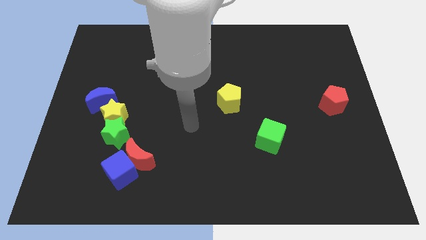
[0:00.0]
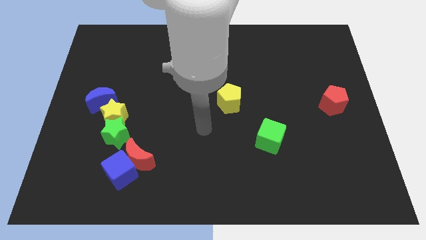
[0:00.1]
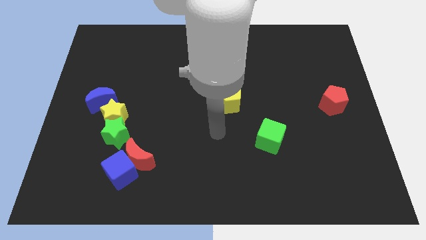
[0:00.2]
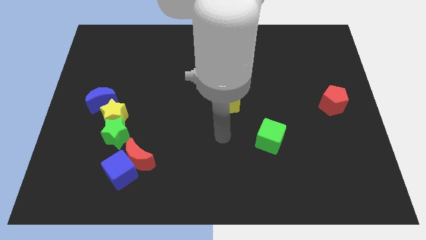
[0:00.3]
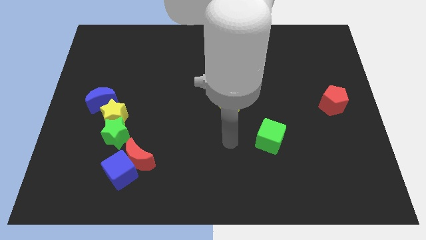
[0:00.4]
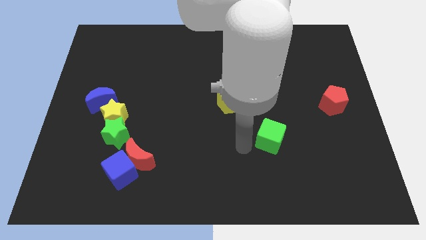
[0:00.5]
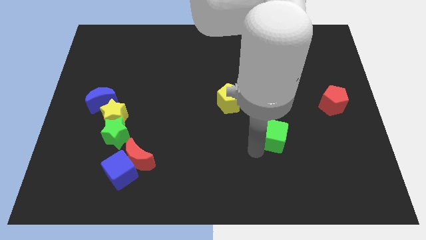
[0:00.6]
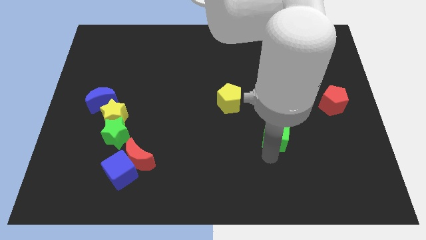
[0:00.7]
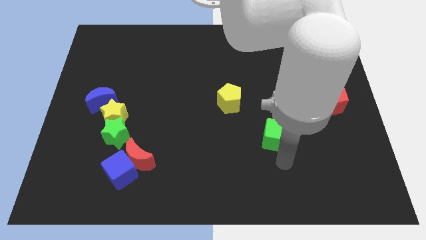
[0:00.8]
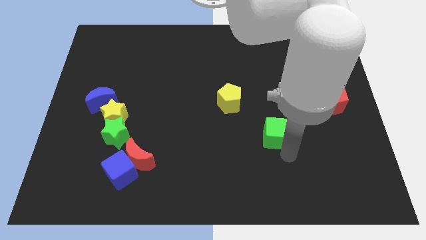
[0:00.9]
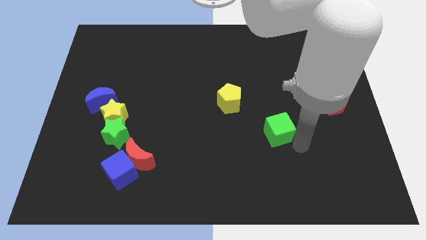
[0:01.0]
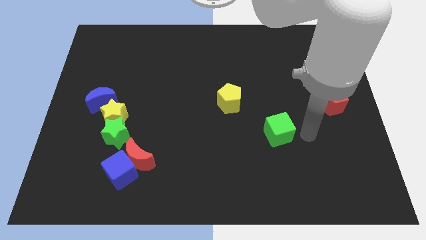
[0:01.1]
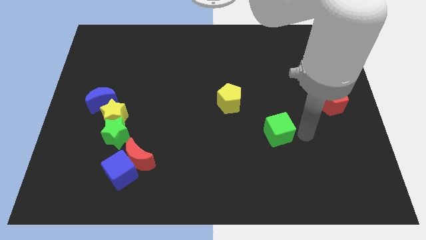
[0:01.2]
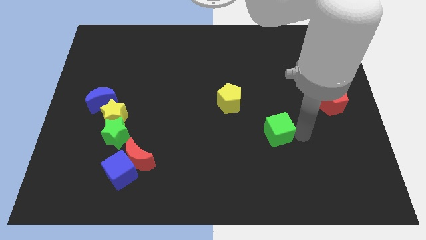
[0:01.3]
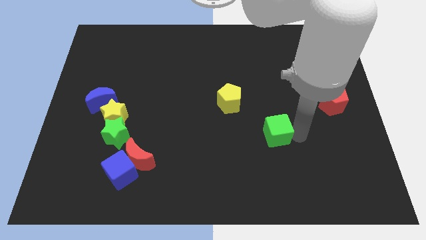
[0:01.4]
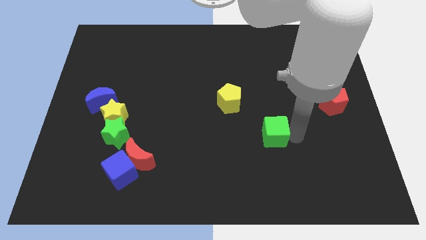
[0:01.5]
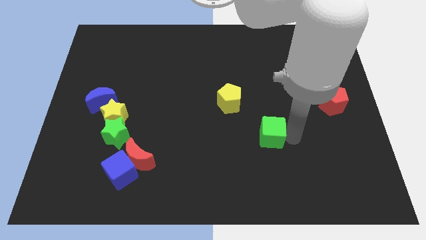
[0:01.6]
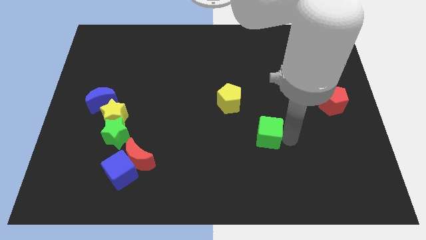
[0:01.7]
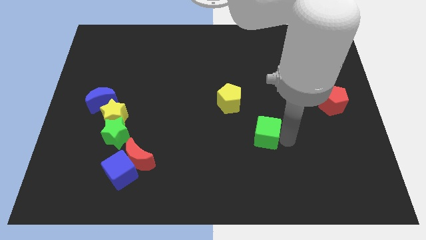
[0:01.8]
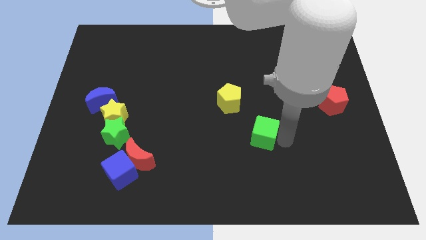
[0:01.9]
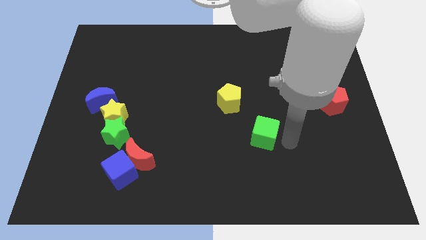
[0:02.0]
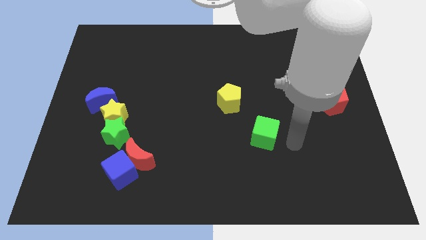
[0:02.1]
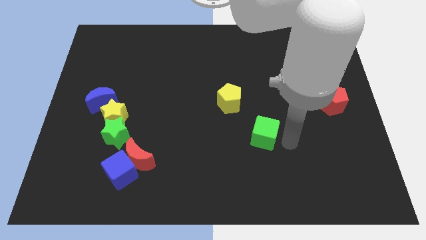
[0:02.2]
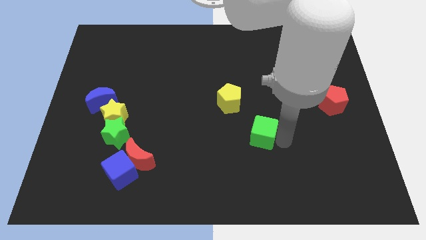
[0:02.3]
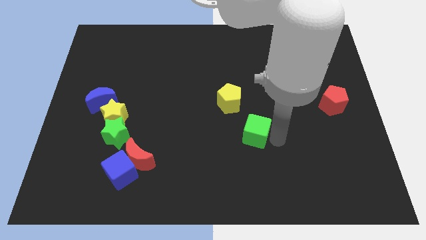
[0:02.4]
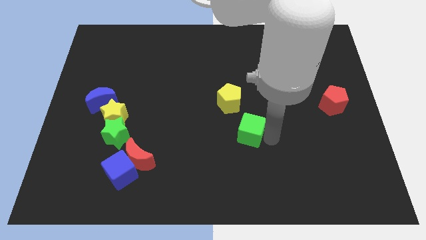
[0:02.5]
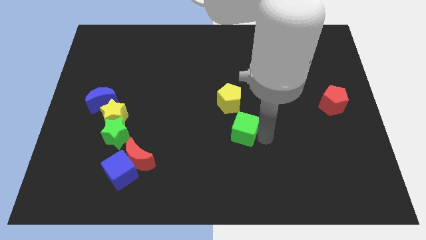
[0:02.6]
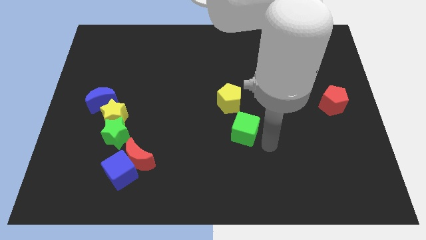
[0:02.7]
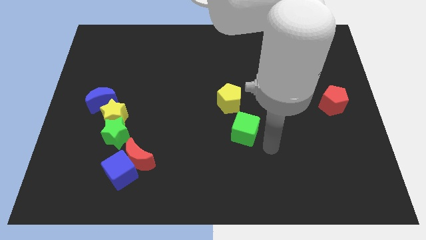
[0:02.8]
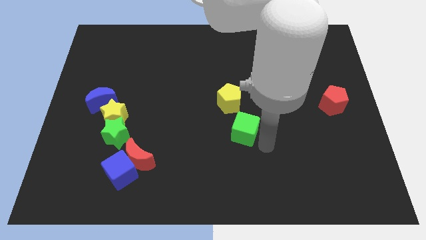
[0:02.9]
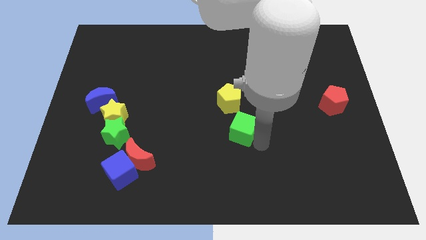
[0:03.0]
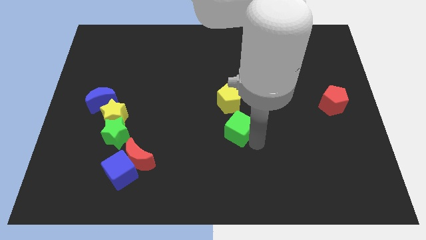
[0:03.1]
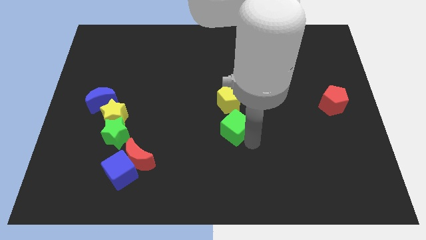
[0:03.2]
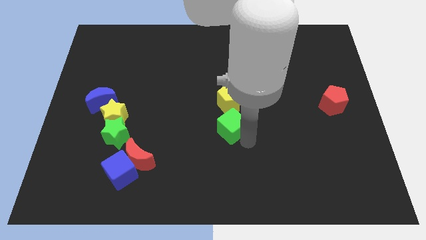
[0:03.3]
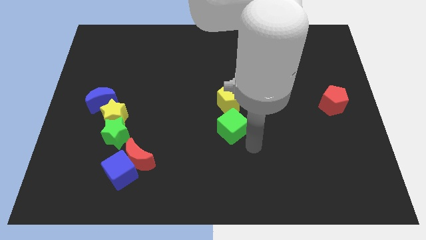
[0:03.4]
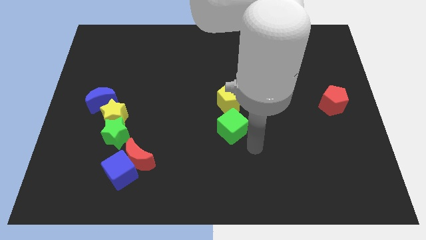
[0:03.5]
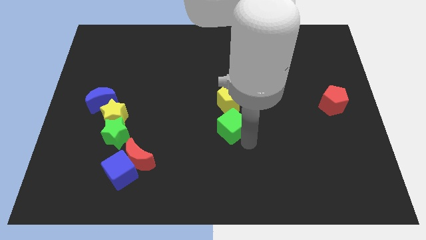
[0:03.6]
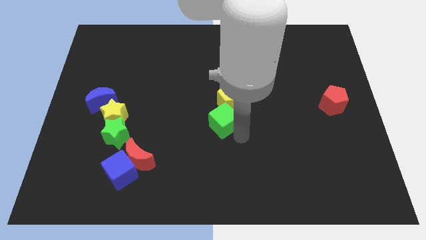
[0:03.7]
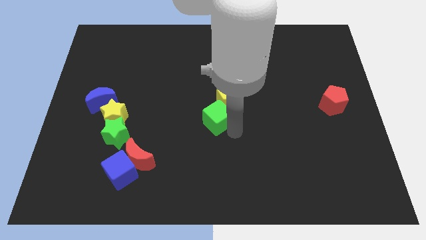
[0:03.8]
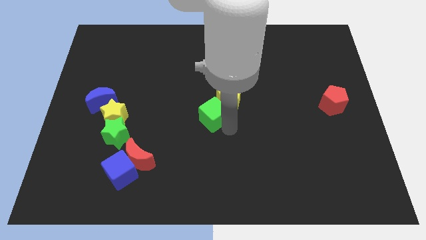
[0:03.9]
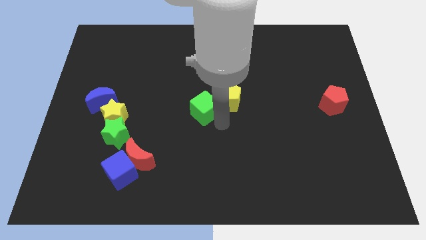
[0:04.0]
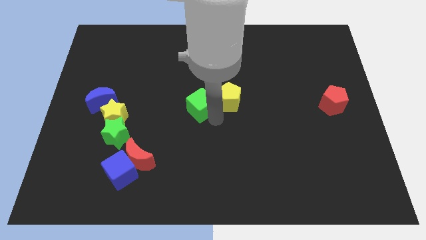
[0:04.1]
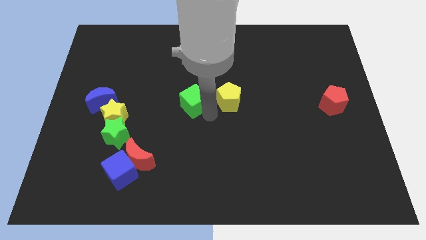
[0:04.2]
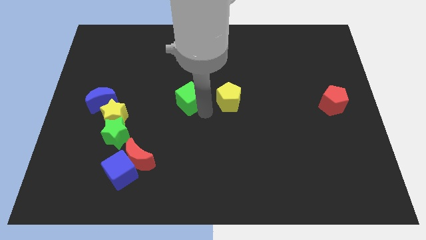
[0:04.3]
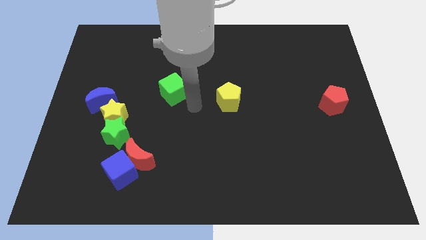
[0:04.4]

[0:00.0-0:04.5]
slide the green cube up and then to the left

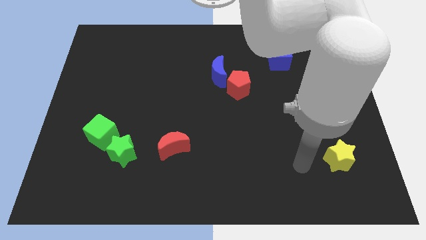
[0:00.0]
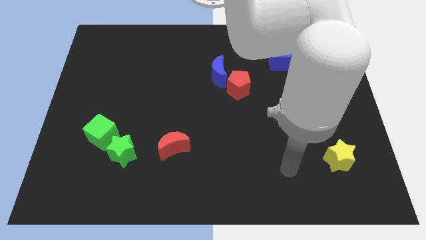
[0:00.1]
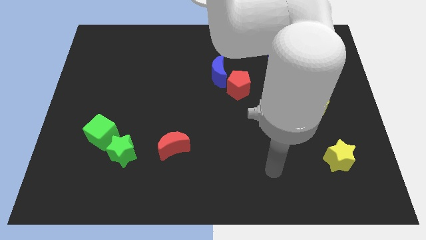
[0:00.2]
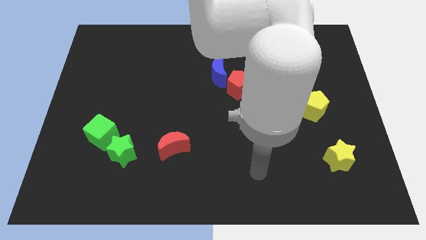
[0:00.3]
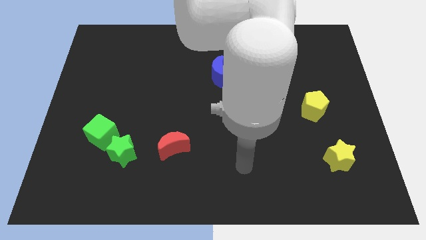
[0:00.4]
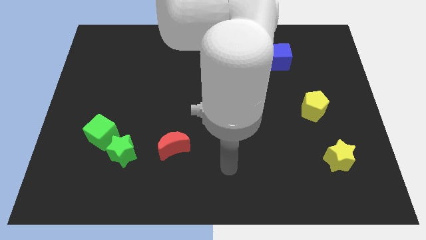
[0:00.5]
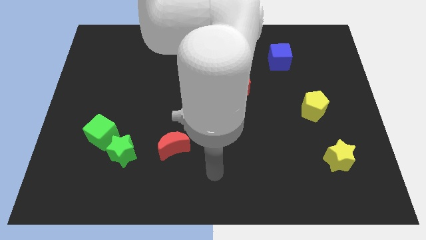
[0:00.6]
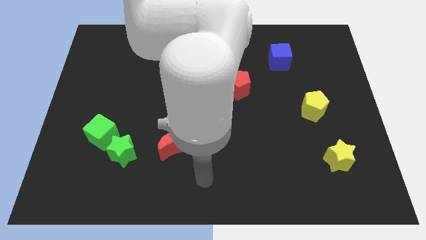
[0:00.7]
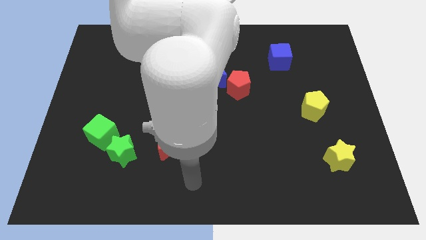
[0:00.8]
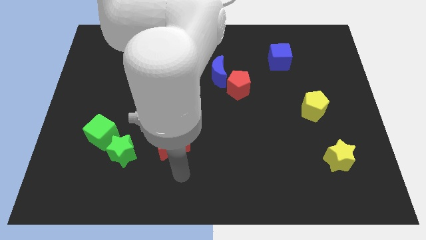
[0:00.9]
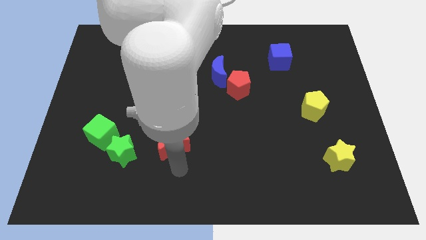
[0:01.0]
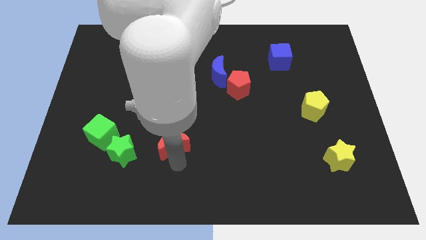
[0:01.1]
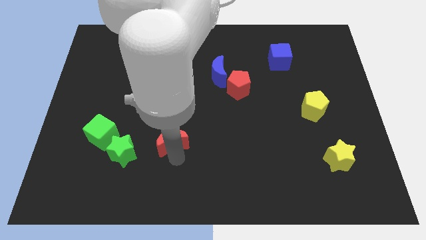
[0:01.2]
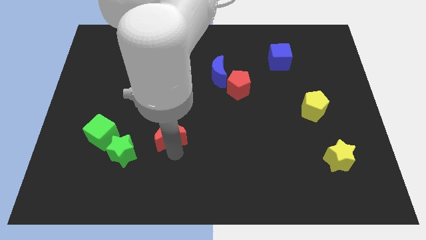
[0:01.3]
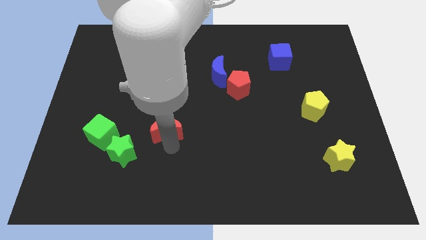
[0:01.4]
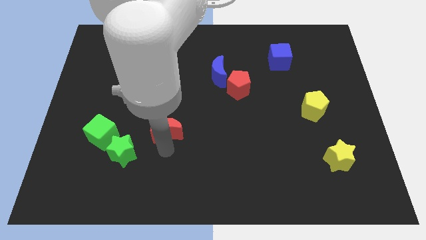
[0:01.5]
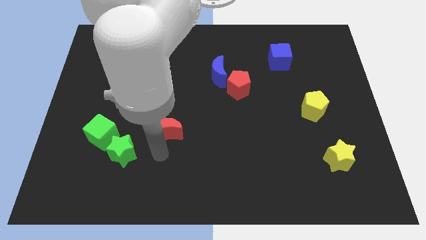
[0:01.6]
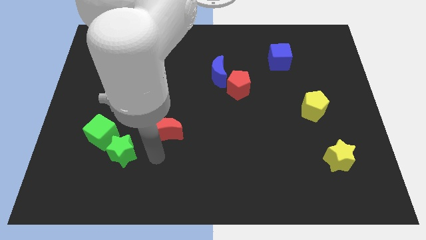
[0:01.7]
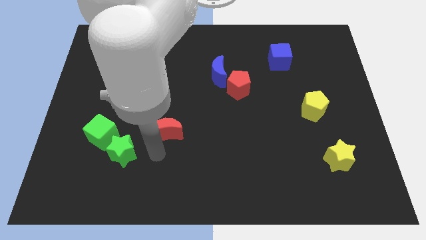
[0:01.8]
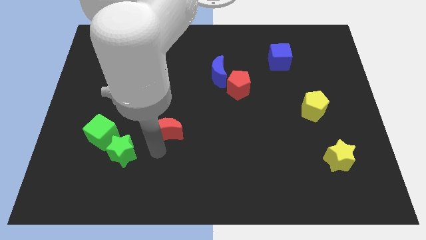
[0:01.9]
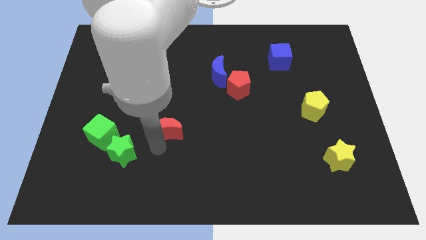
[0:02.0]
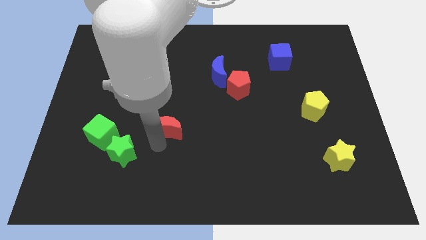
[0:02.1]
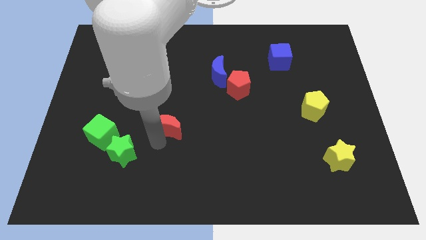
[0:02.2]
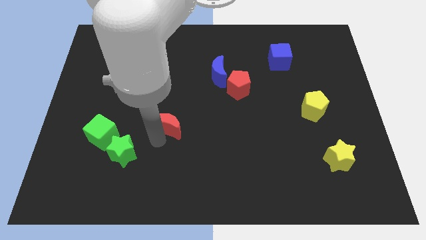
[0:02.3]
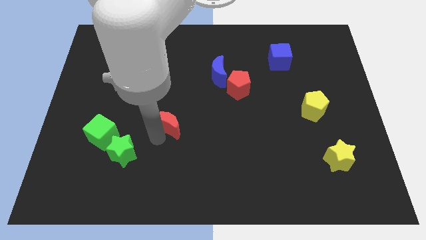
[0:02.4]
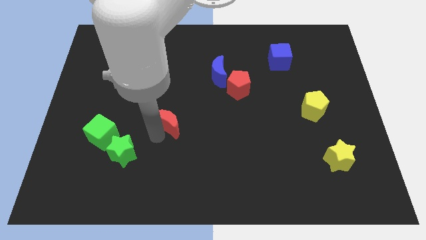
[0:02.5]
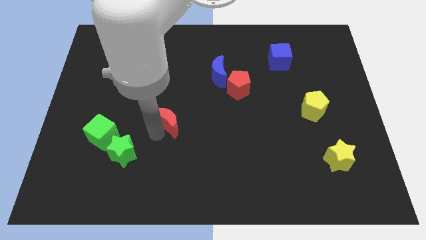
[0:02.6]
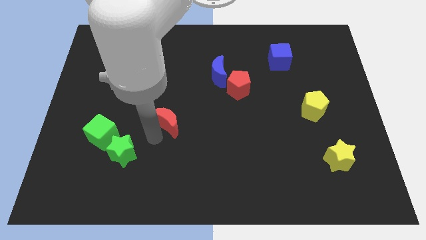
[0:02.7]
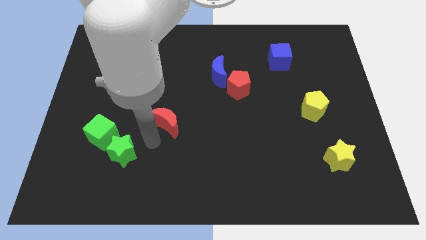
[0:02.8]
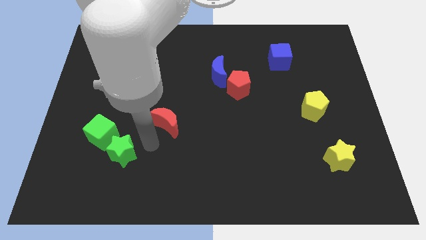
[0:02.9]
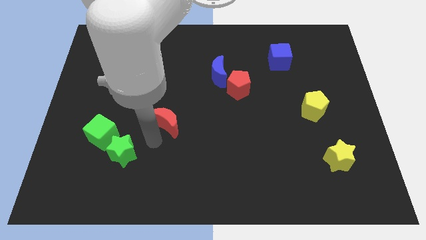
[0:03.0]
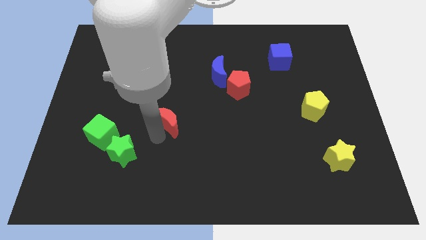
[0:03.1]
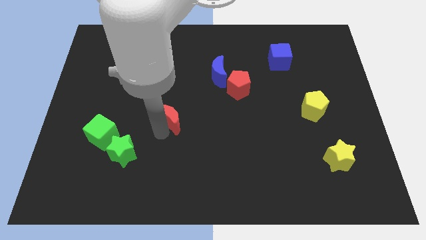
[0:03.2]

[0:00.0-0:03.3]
slightly slide the red moon up

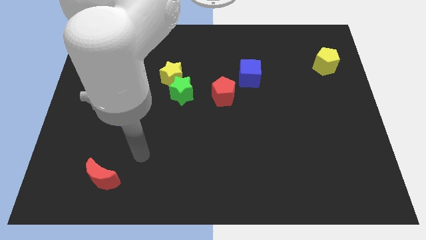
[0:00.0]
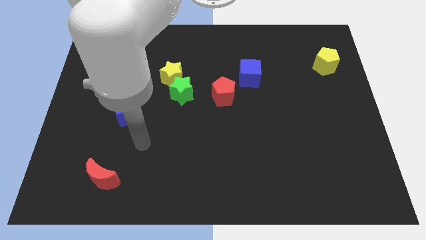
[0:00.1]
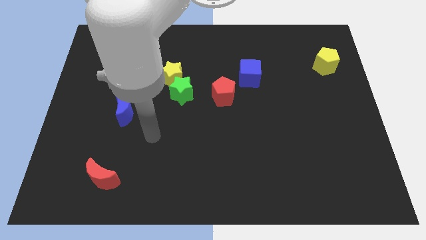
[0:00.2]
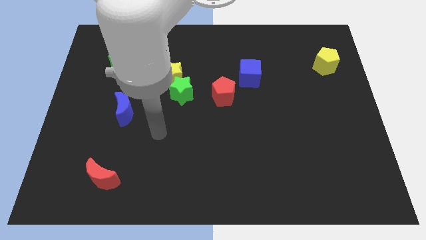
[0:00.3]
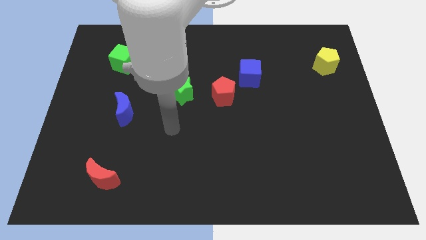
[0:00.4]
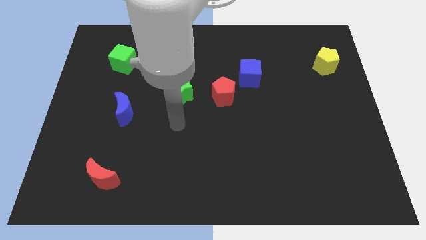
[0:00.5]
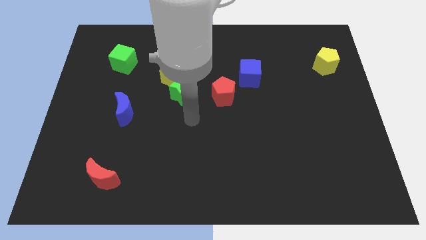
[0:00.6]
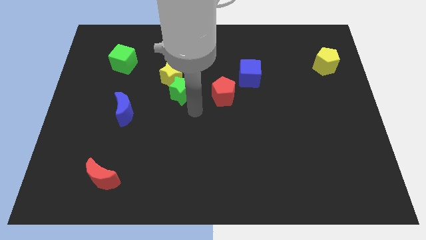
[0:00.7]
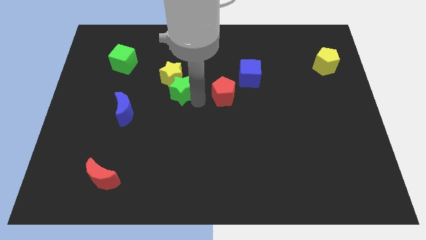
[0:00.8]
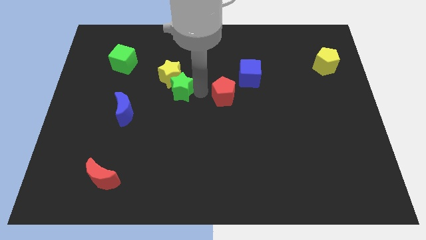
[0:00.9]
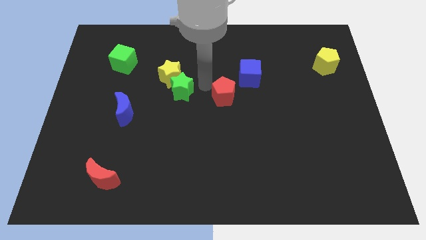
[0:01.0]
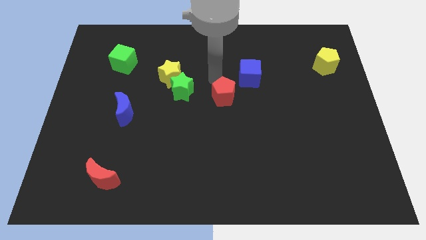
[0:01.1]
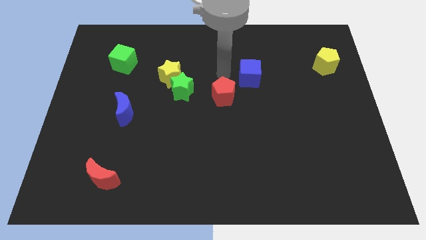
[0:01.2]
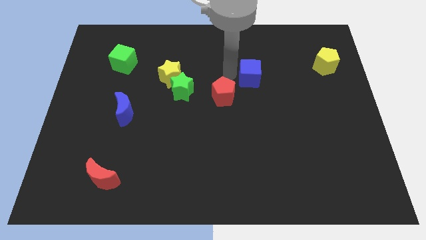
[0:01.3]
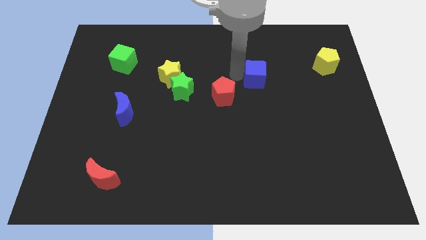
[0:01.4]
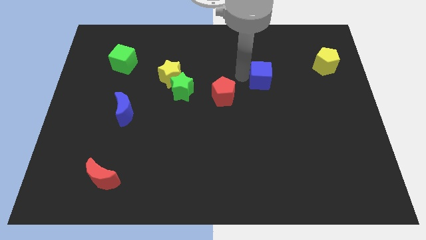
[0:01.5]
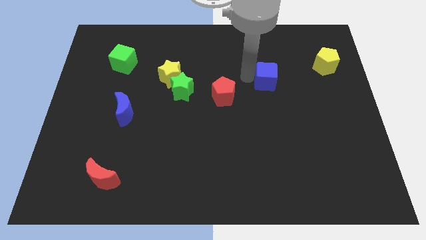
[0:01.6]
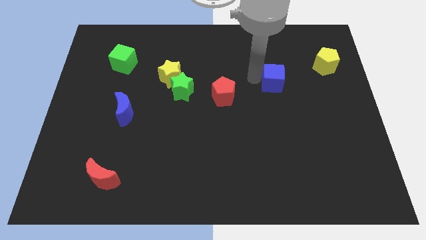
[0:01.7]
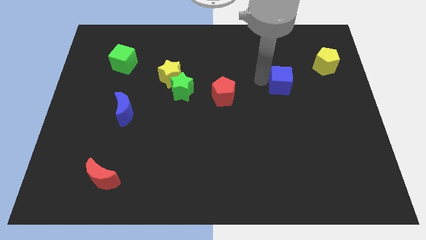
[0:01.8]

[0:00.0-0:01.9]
move the blue cube a little right
